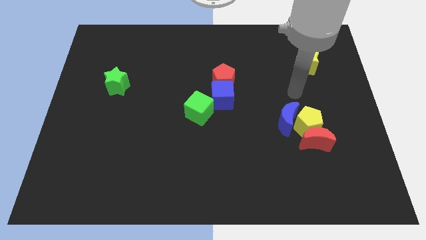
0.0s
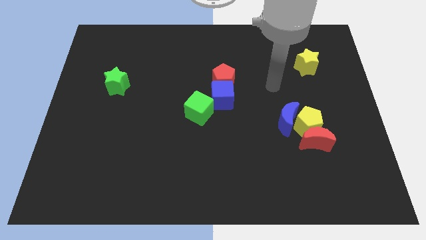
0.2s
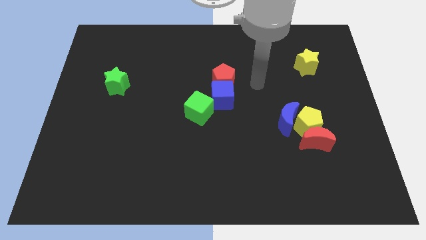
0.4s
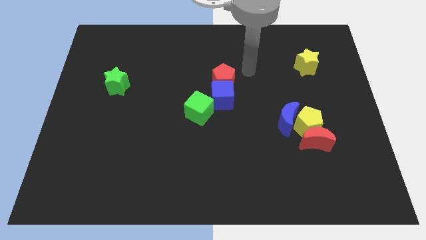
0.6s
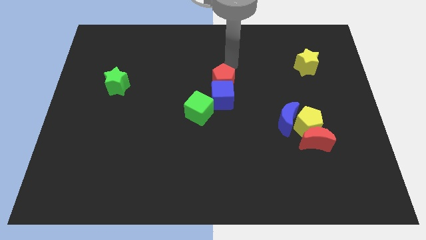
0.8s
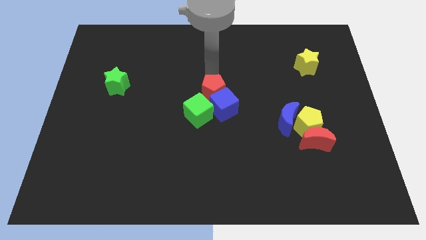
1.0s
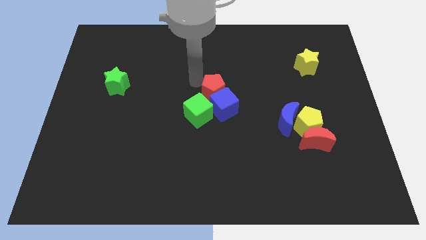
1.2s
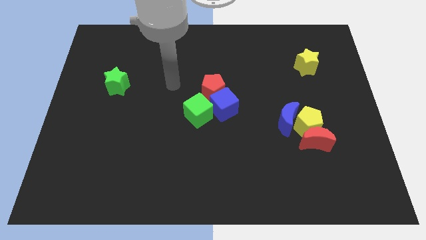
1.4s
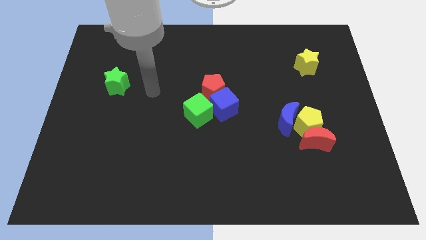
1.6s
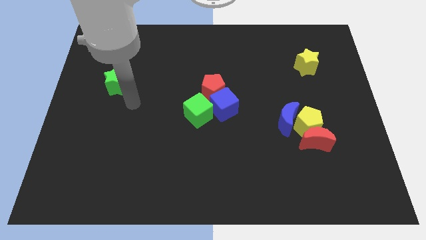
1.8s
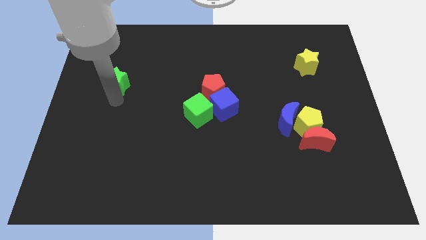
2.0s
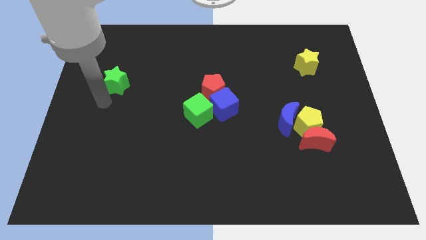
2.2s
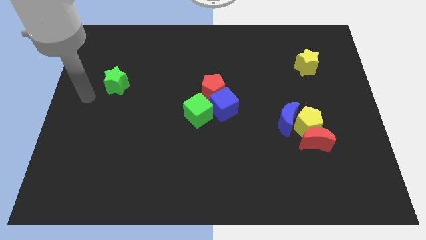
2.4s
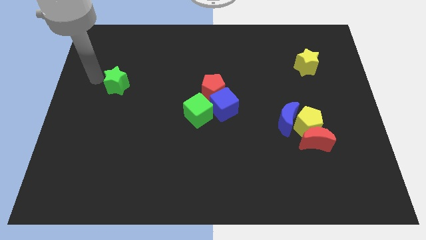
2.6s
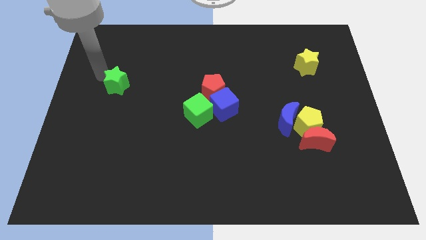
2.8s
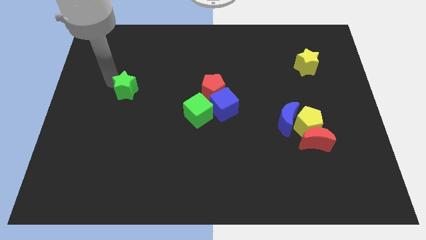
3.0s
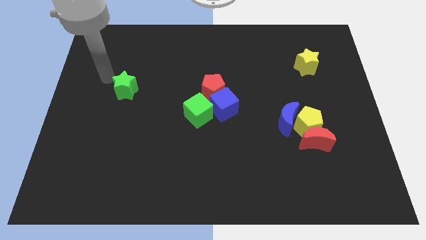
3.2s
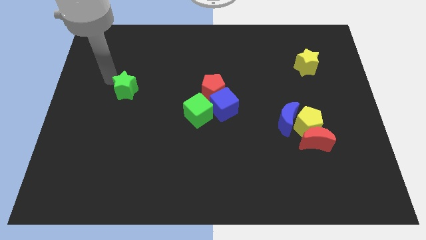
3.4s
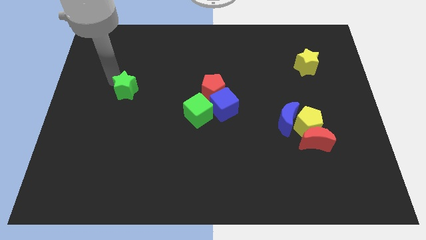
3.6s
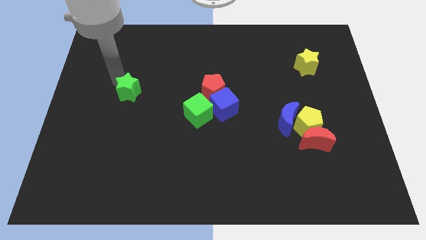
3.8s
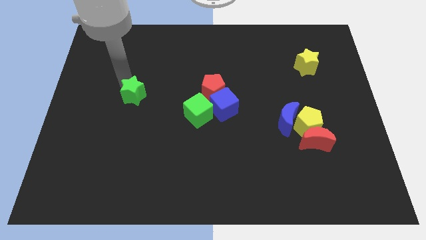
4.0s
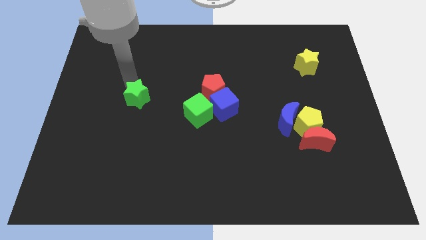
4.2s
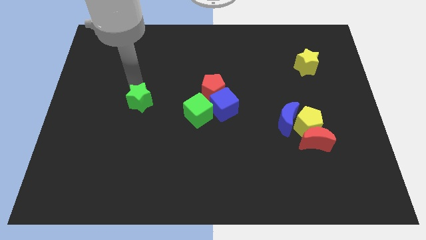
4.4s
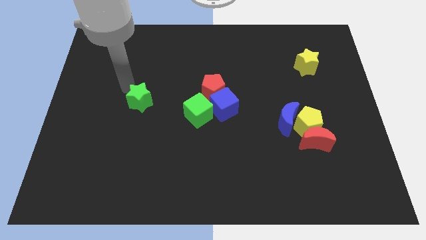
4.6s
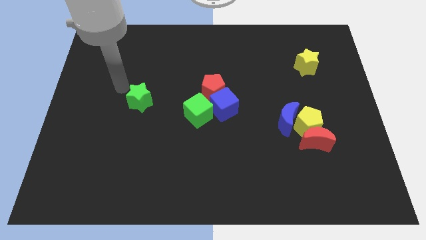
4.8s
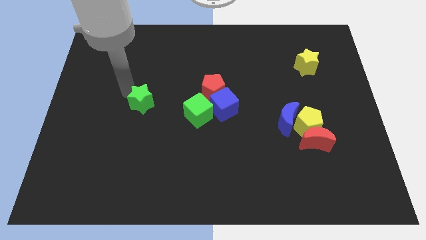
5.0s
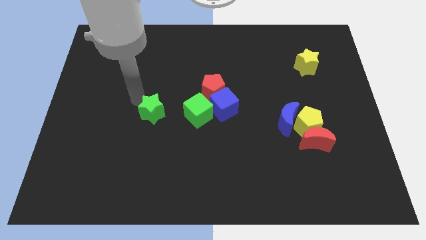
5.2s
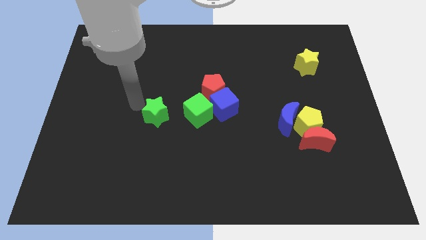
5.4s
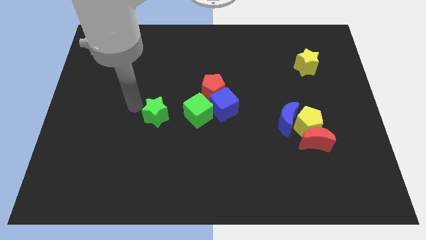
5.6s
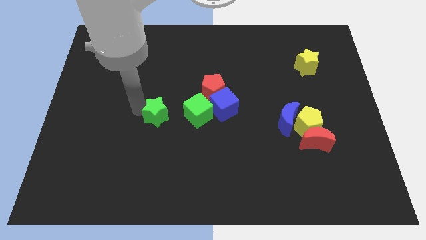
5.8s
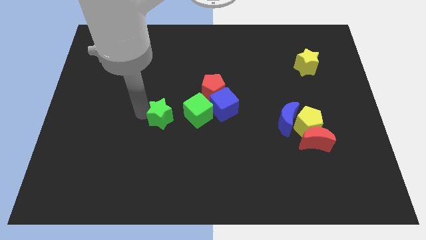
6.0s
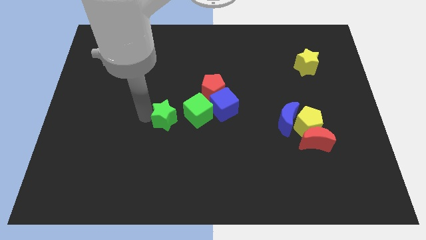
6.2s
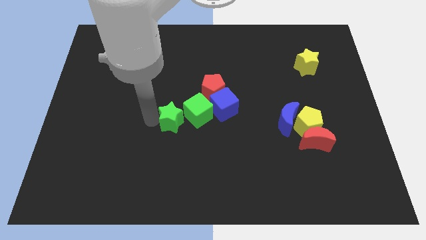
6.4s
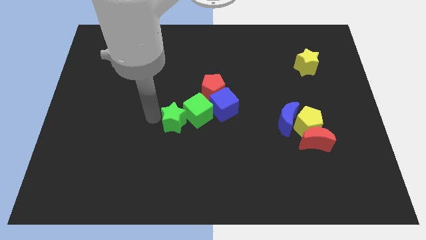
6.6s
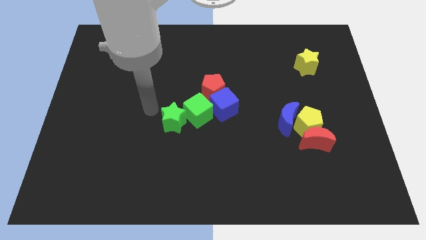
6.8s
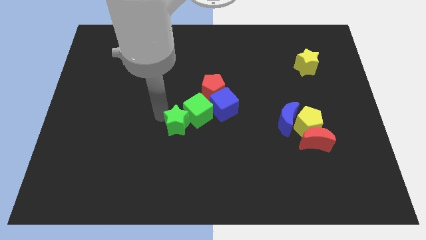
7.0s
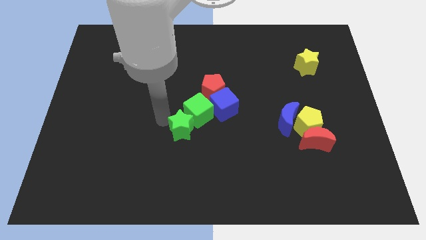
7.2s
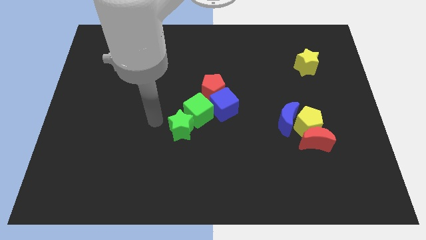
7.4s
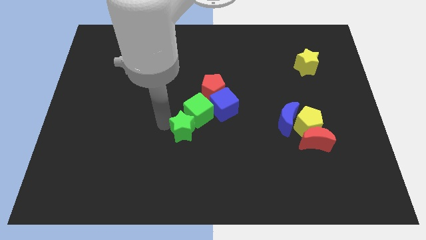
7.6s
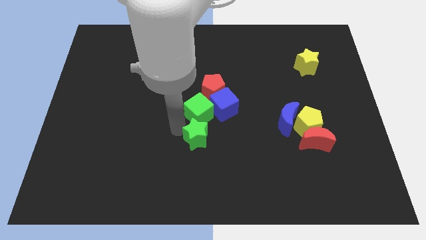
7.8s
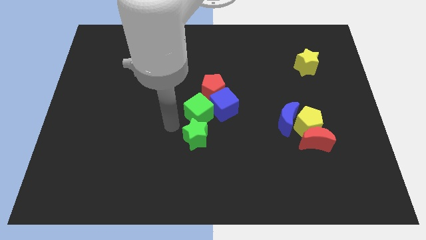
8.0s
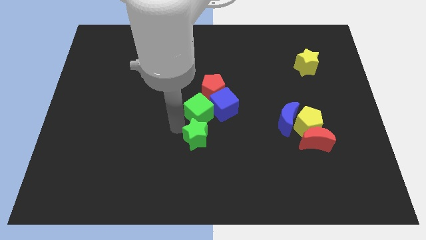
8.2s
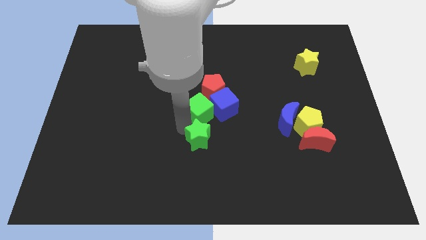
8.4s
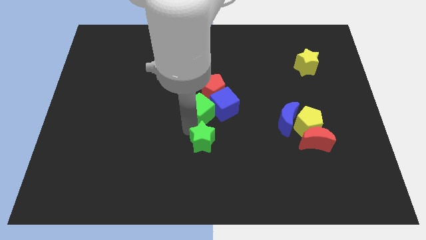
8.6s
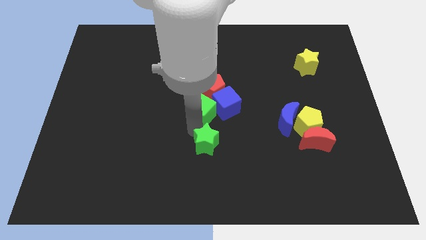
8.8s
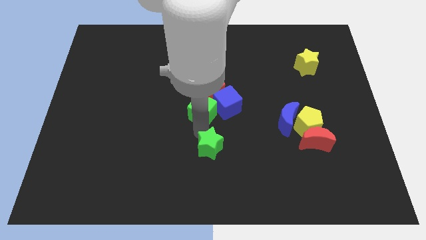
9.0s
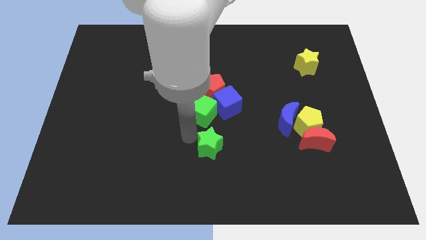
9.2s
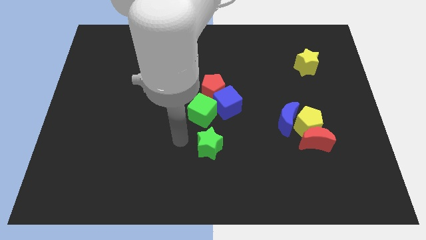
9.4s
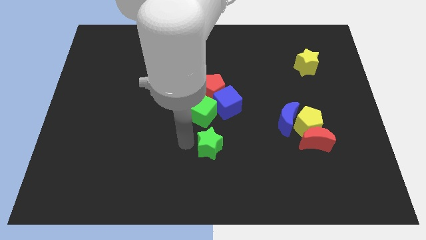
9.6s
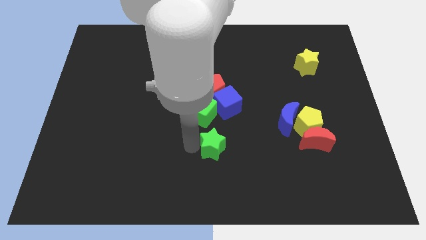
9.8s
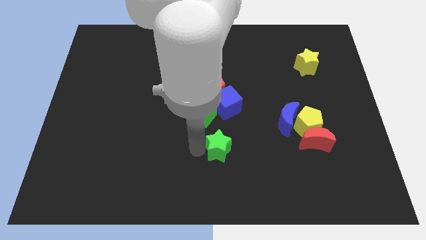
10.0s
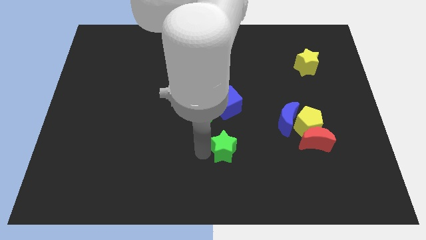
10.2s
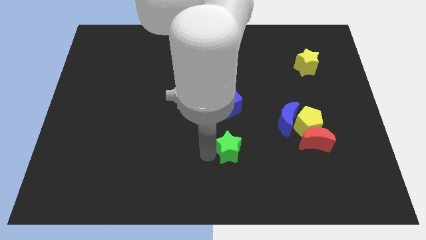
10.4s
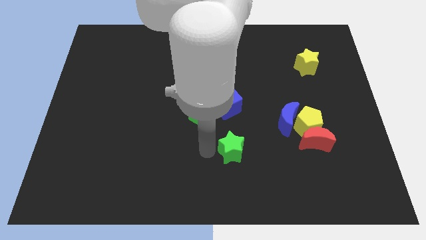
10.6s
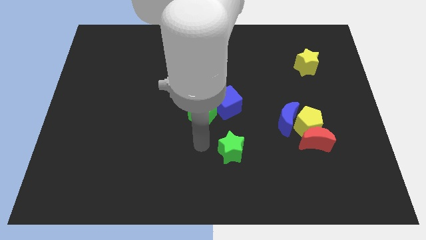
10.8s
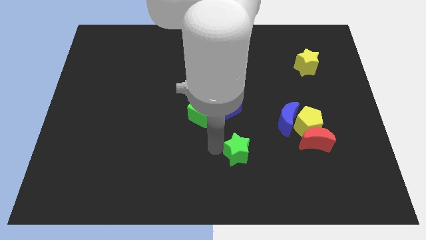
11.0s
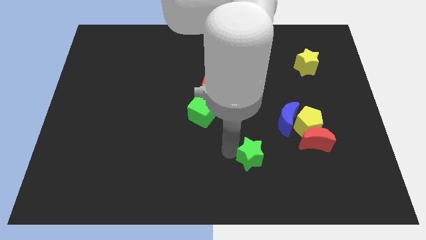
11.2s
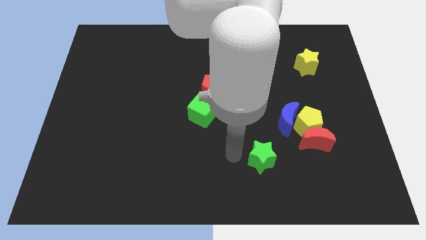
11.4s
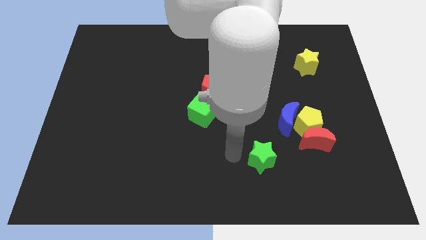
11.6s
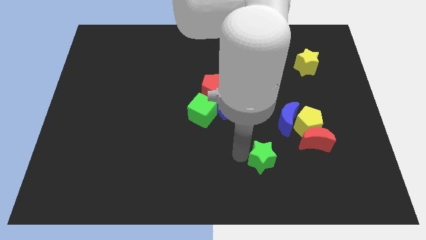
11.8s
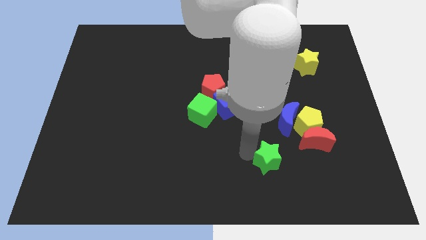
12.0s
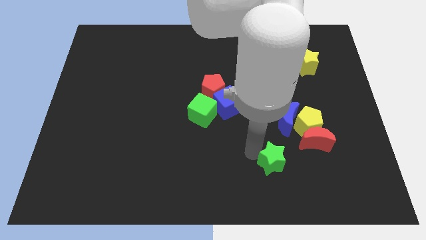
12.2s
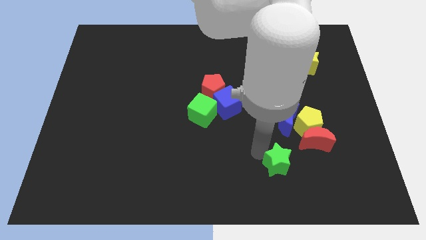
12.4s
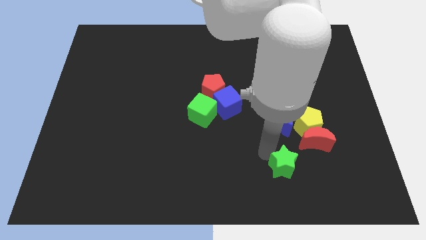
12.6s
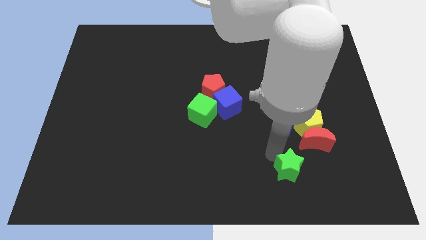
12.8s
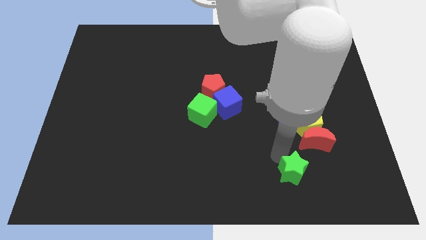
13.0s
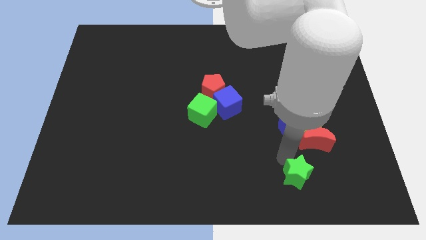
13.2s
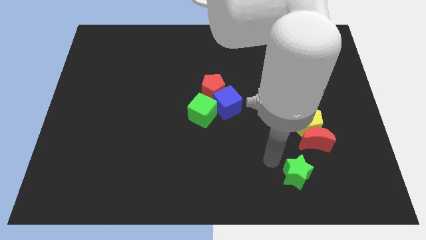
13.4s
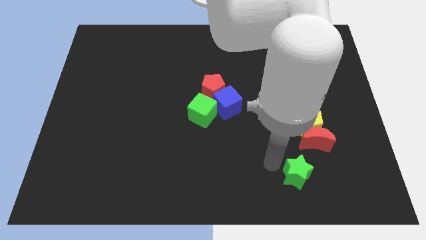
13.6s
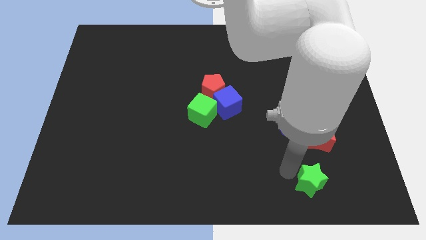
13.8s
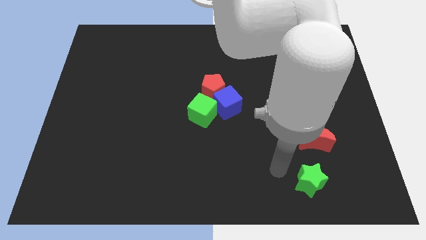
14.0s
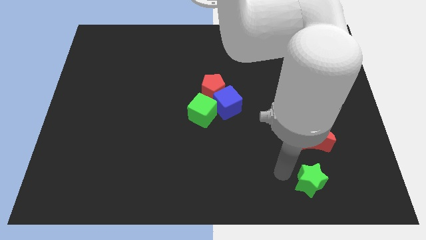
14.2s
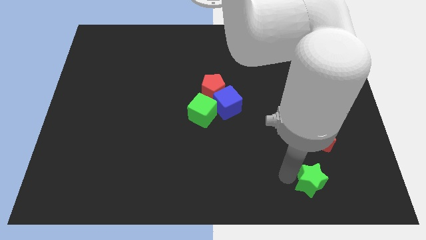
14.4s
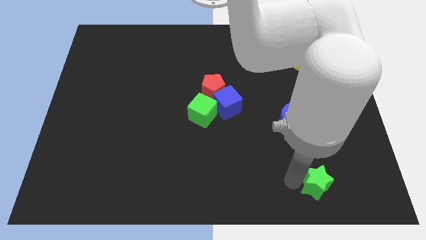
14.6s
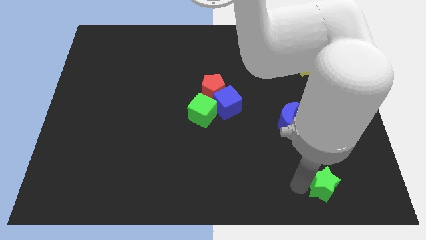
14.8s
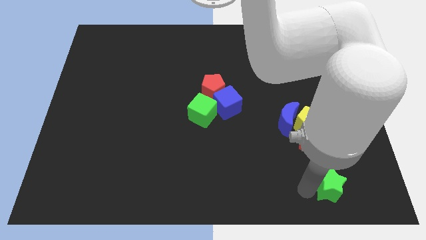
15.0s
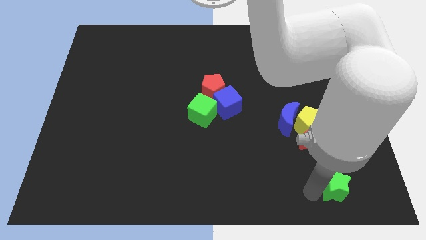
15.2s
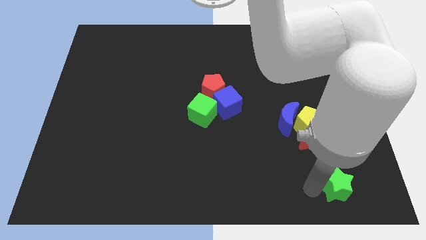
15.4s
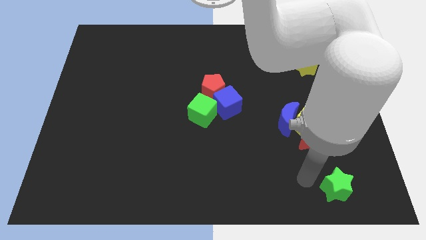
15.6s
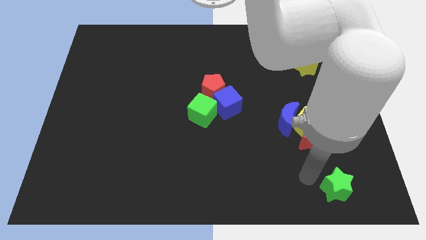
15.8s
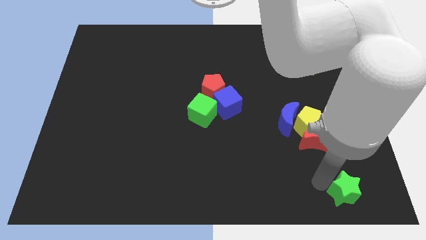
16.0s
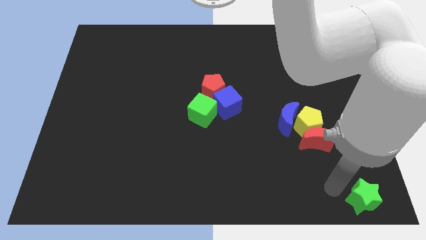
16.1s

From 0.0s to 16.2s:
put the green star to the lower right corner
